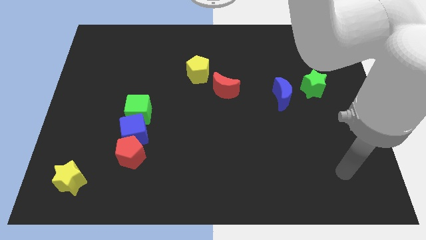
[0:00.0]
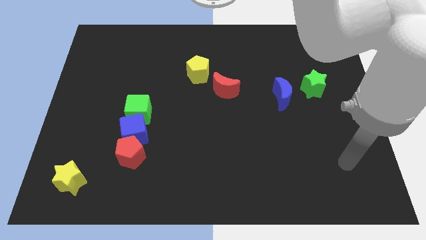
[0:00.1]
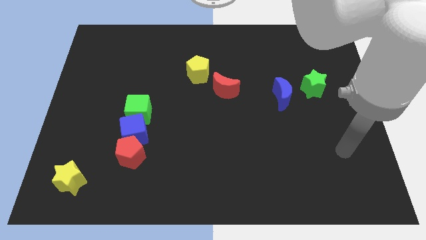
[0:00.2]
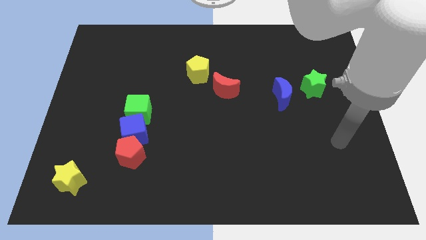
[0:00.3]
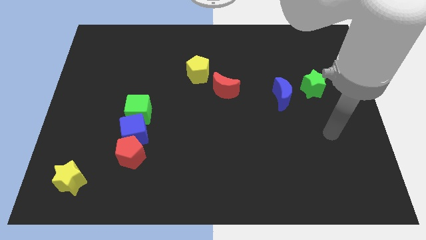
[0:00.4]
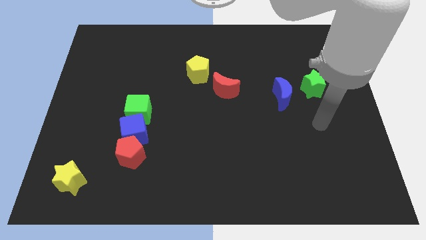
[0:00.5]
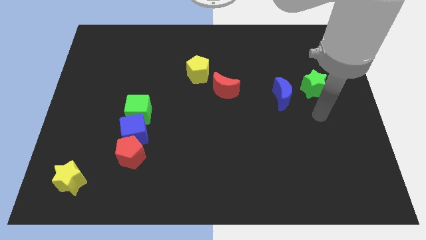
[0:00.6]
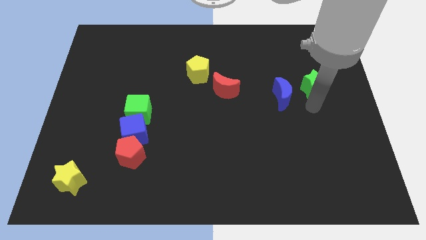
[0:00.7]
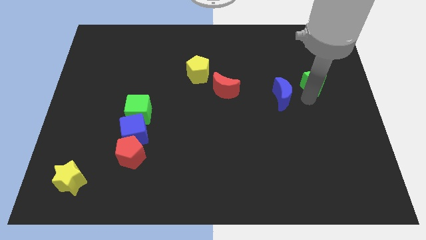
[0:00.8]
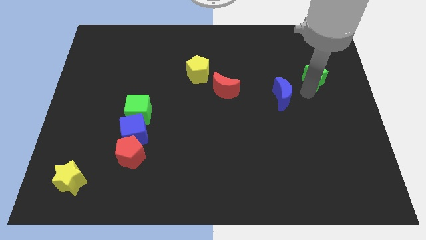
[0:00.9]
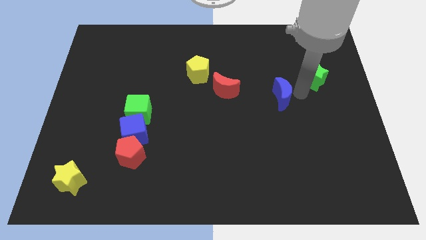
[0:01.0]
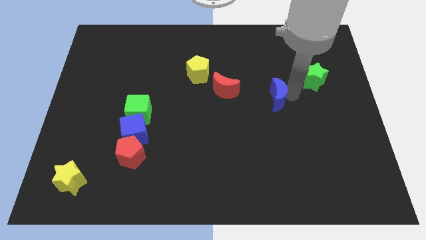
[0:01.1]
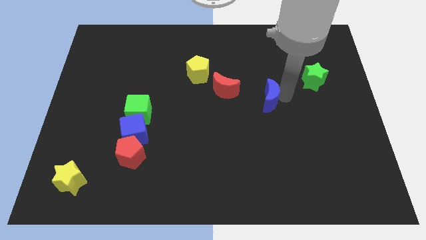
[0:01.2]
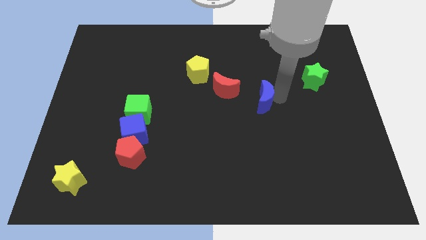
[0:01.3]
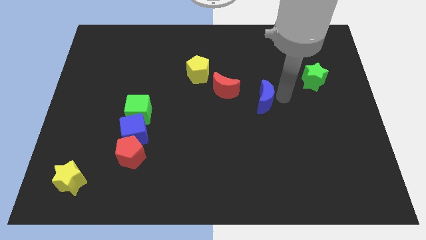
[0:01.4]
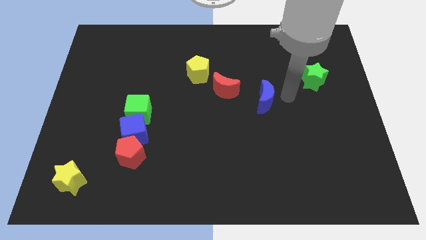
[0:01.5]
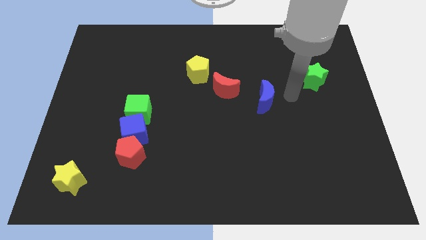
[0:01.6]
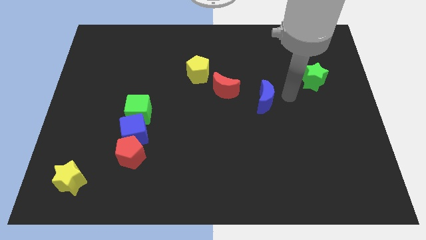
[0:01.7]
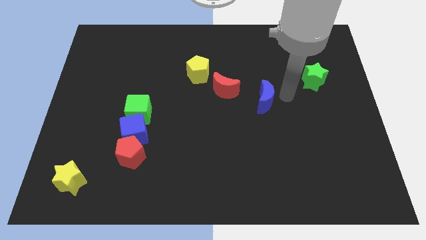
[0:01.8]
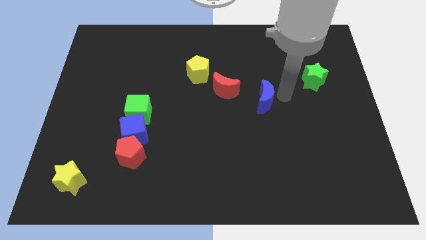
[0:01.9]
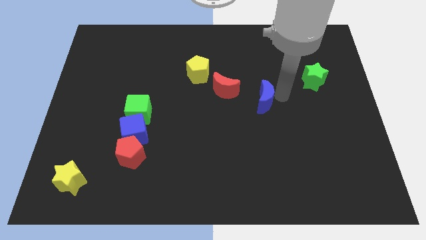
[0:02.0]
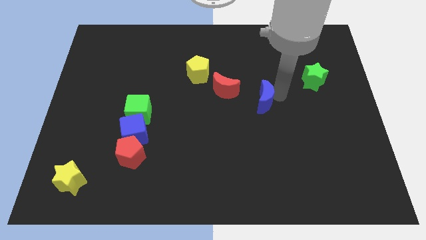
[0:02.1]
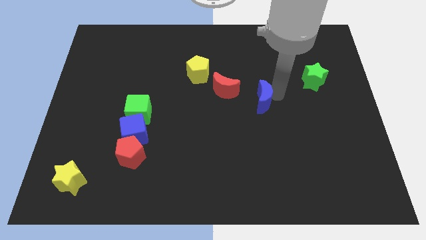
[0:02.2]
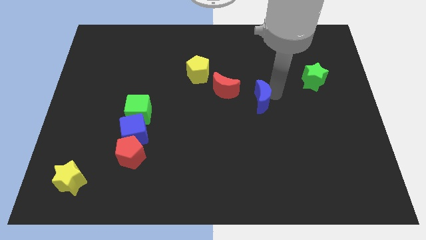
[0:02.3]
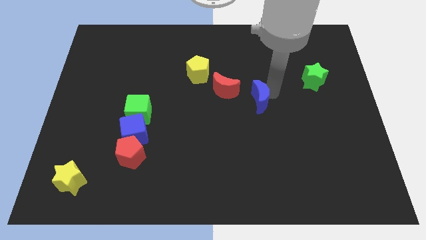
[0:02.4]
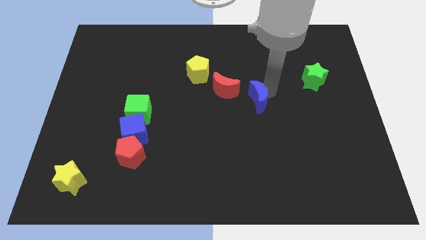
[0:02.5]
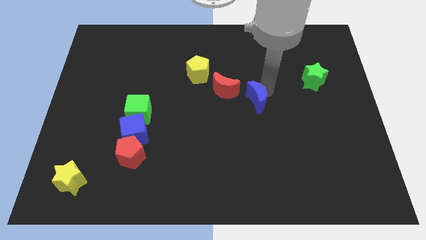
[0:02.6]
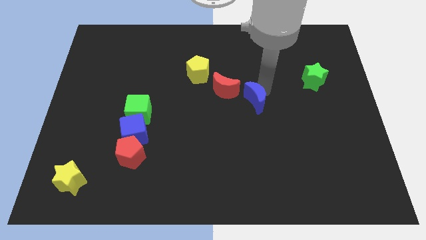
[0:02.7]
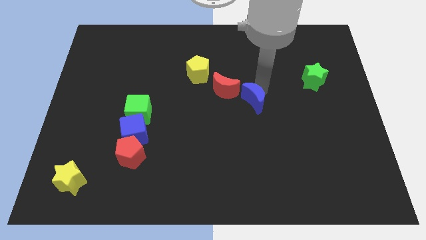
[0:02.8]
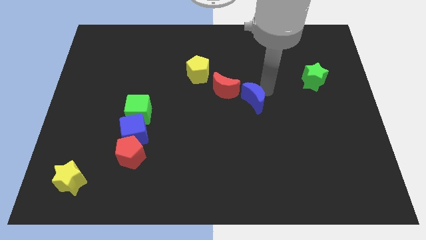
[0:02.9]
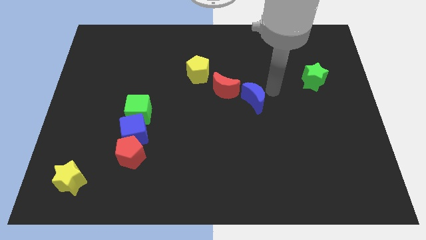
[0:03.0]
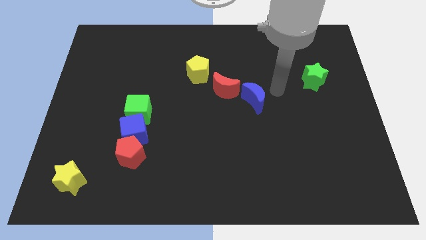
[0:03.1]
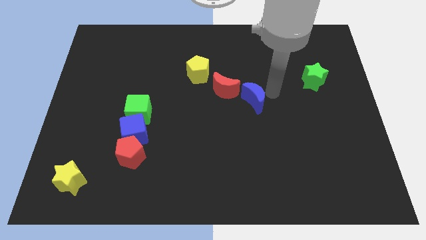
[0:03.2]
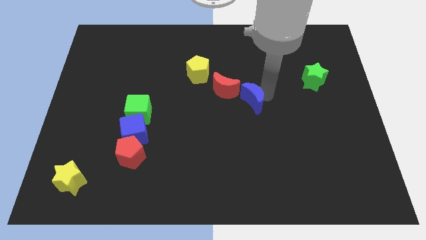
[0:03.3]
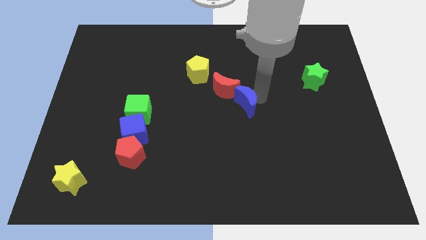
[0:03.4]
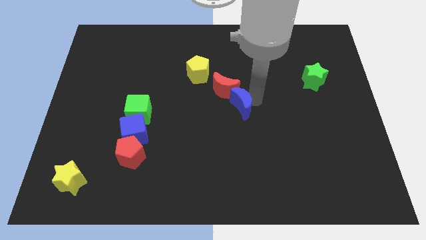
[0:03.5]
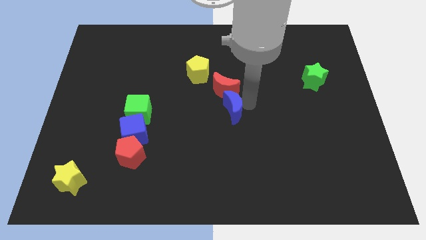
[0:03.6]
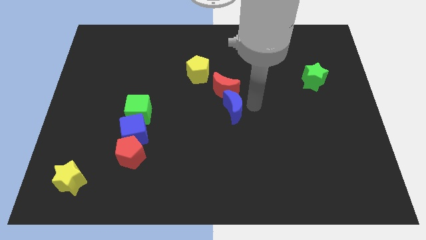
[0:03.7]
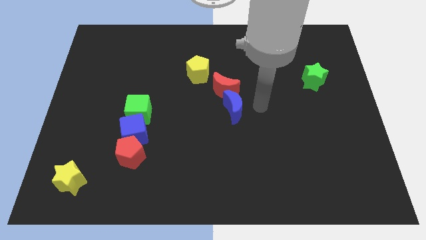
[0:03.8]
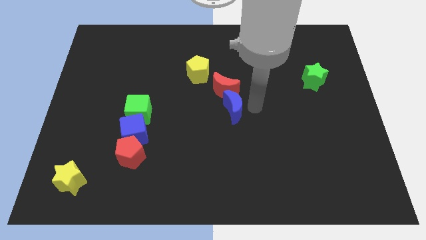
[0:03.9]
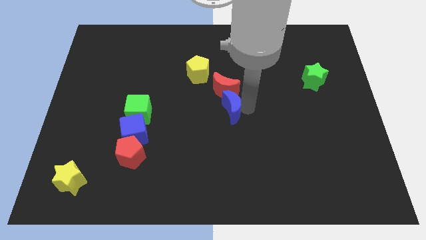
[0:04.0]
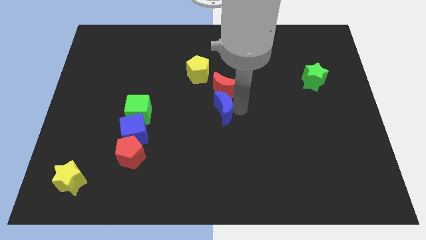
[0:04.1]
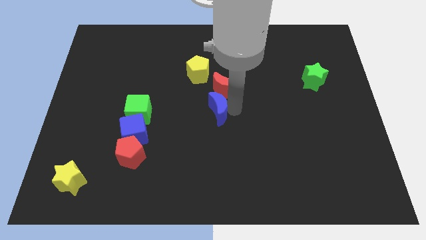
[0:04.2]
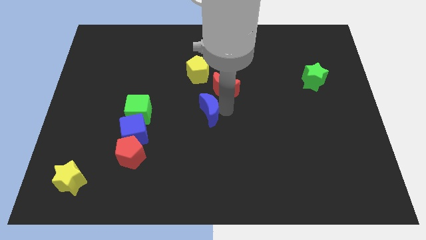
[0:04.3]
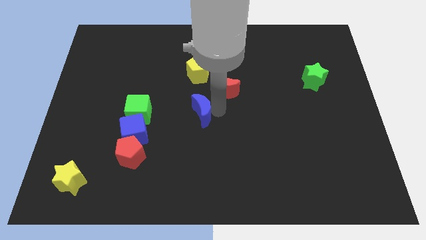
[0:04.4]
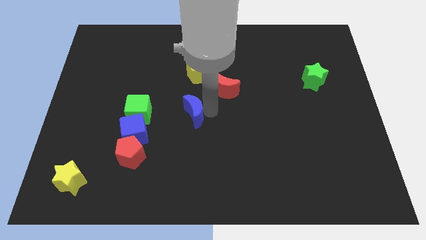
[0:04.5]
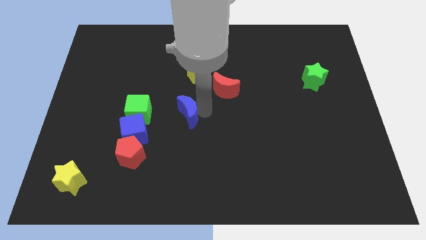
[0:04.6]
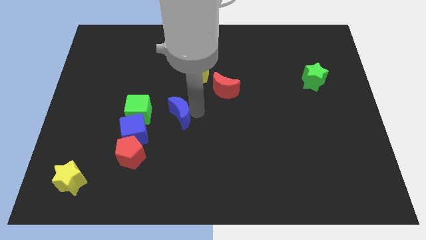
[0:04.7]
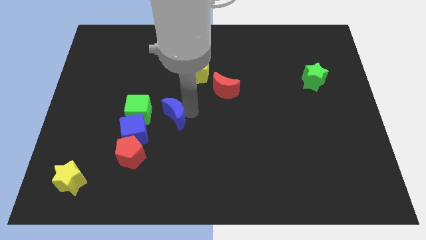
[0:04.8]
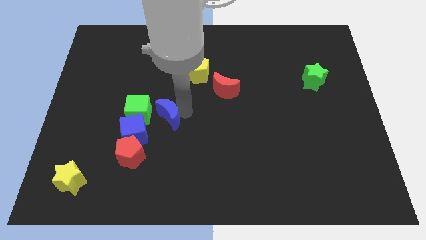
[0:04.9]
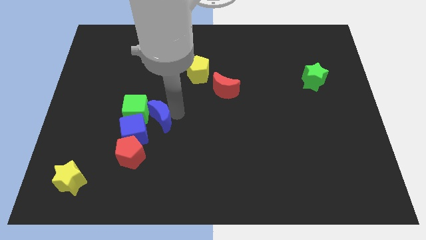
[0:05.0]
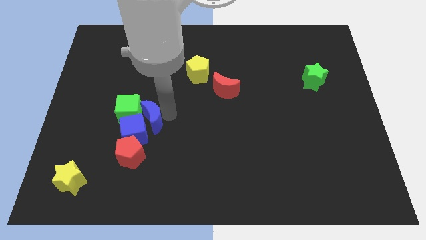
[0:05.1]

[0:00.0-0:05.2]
slide the blue moon towards the blue cube

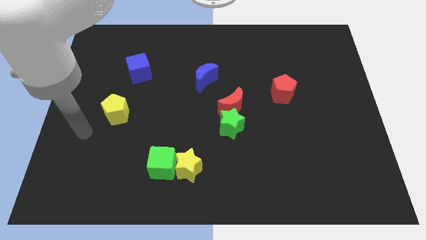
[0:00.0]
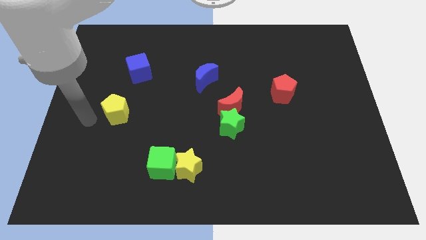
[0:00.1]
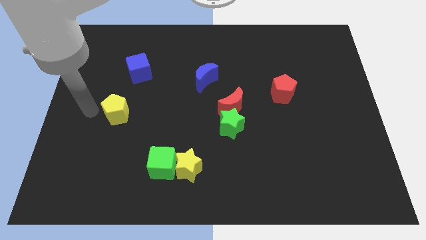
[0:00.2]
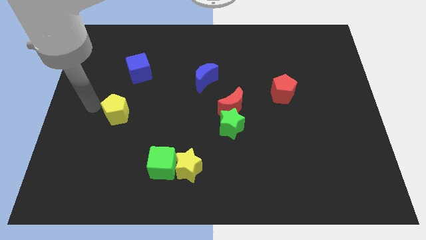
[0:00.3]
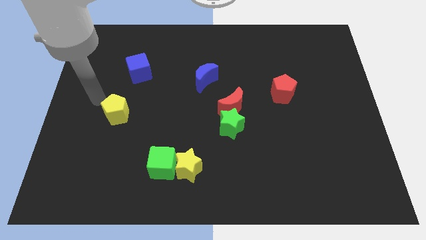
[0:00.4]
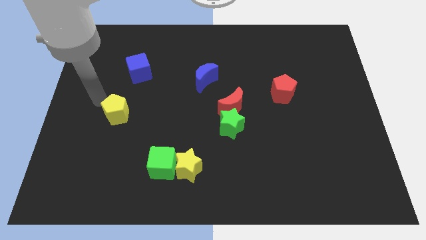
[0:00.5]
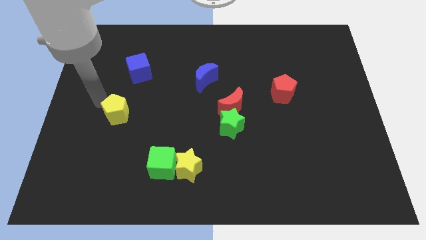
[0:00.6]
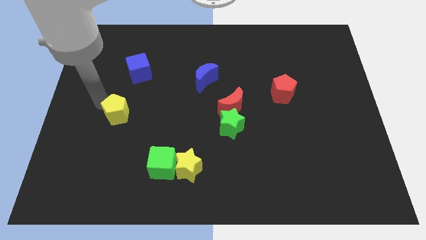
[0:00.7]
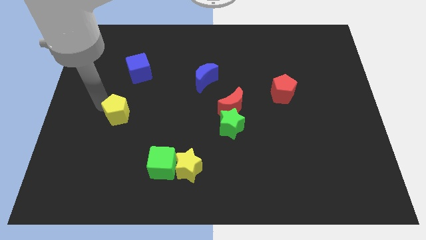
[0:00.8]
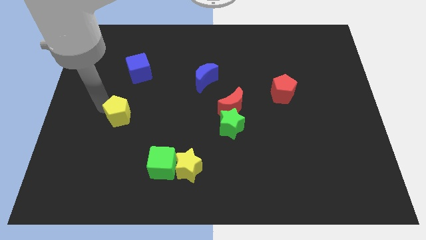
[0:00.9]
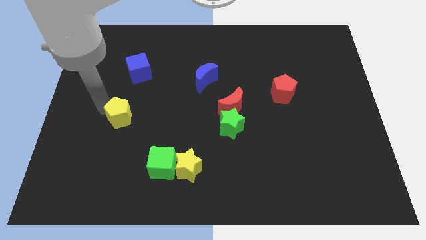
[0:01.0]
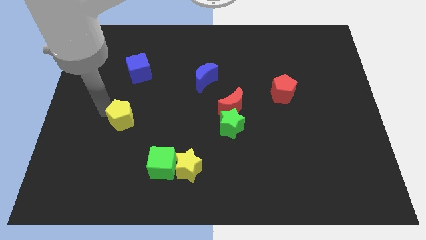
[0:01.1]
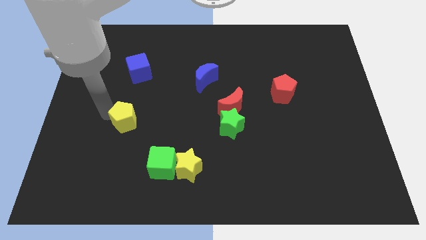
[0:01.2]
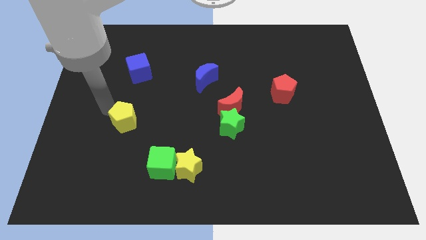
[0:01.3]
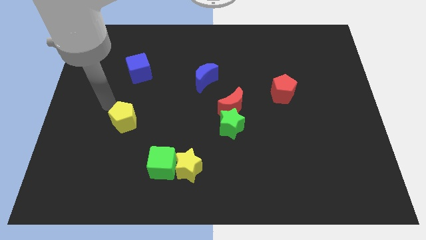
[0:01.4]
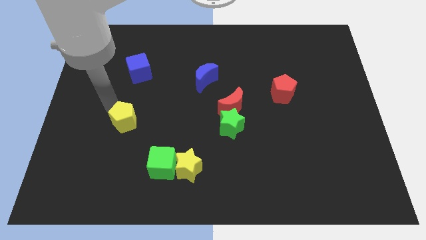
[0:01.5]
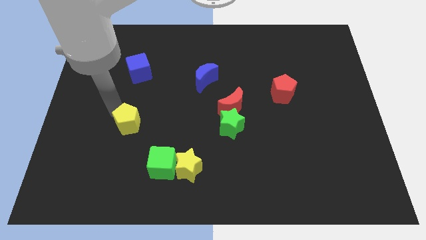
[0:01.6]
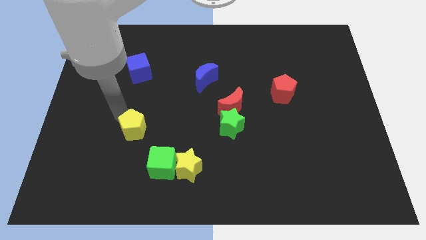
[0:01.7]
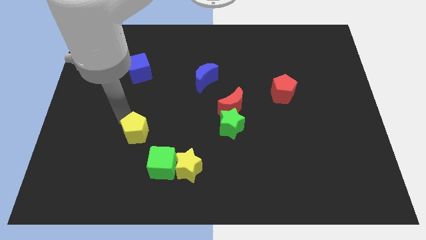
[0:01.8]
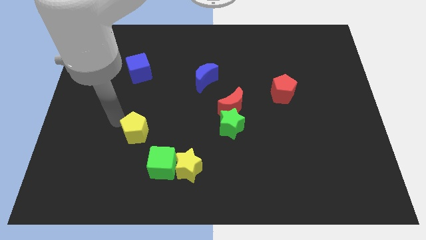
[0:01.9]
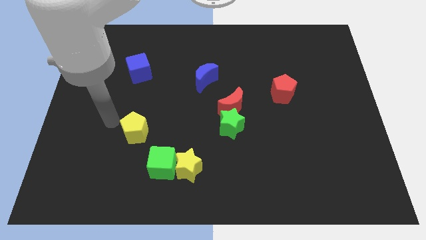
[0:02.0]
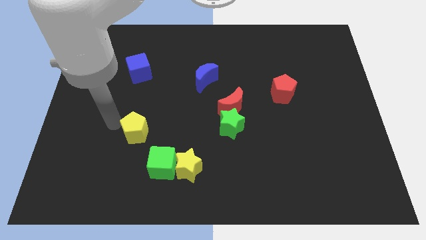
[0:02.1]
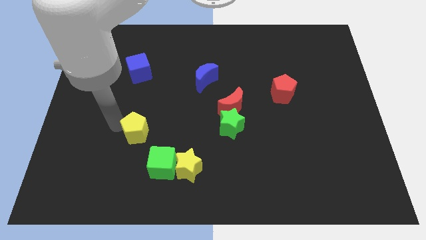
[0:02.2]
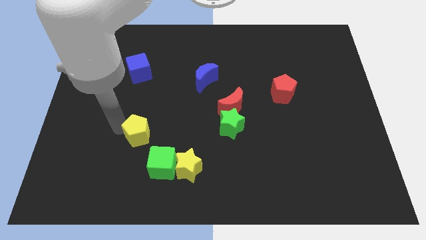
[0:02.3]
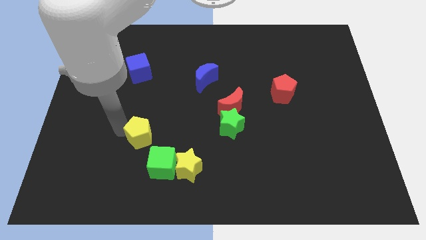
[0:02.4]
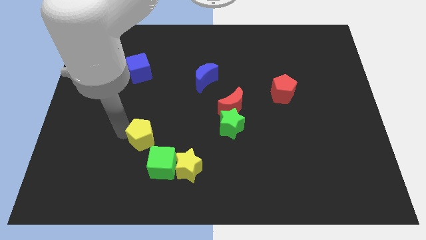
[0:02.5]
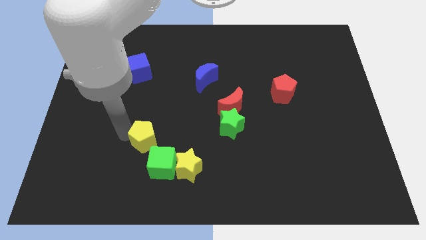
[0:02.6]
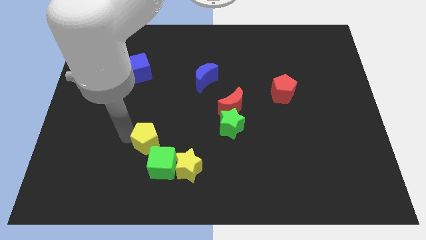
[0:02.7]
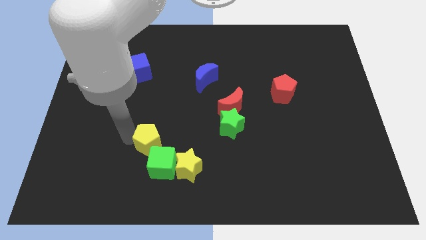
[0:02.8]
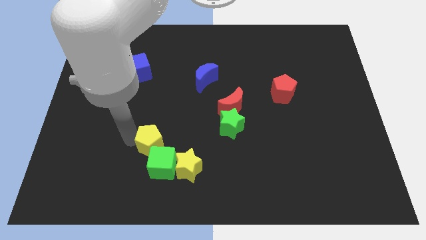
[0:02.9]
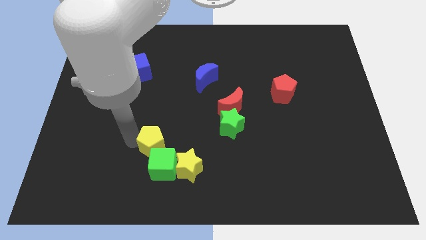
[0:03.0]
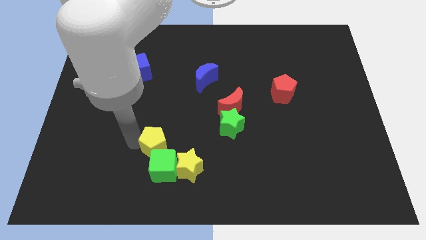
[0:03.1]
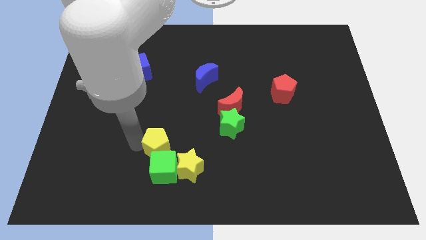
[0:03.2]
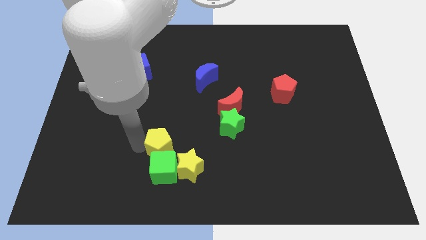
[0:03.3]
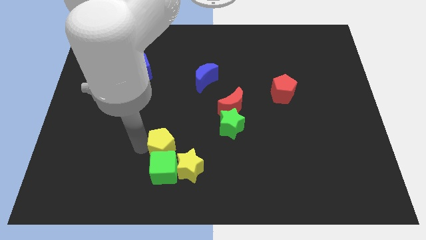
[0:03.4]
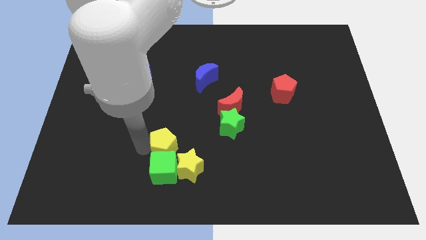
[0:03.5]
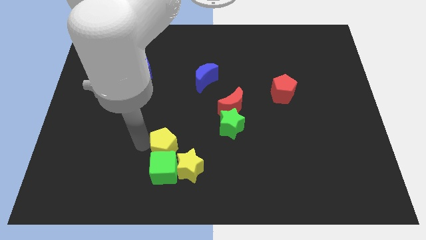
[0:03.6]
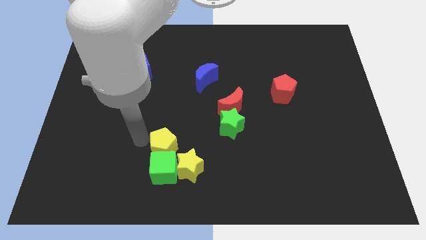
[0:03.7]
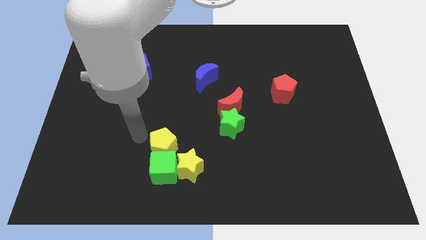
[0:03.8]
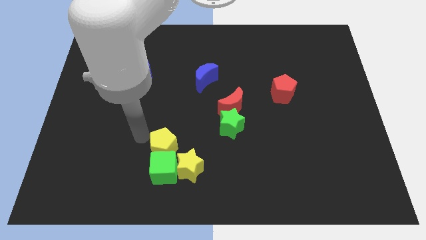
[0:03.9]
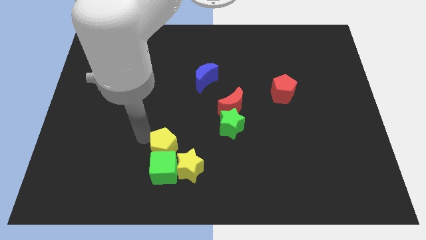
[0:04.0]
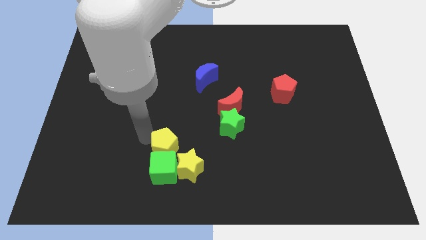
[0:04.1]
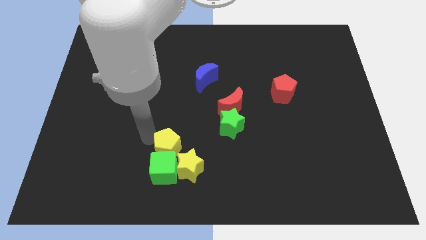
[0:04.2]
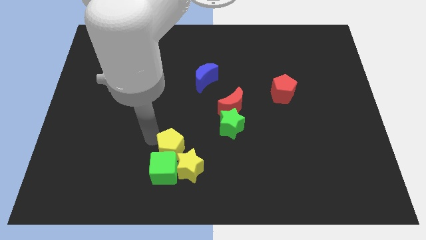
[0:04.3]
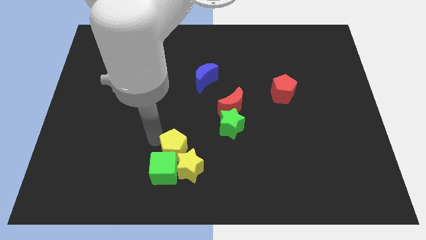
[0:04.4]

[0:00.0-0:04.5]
slide the yellow pentagon next to the yellow star
